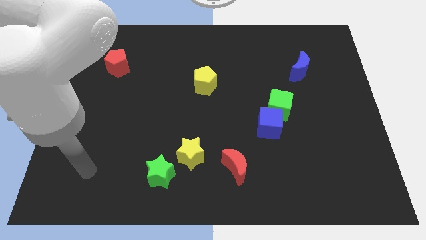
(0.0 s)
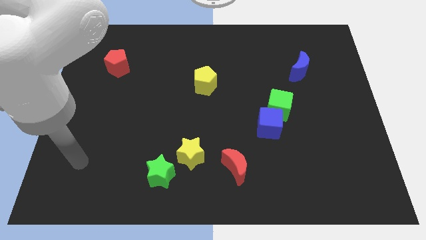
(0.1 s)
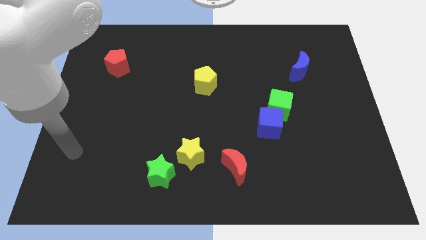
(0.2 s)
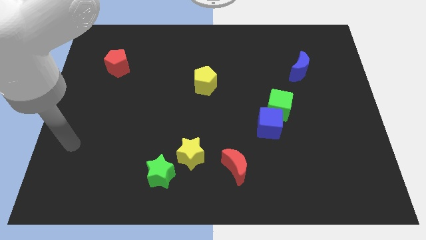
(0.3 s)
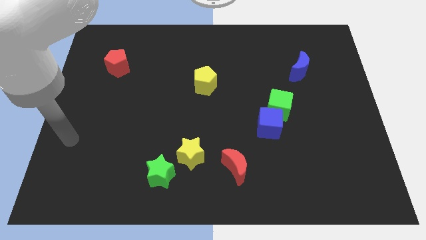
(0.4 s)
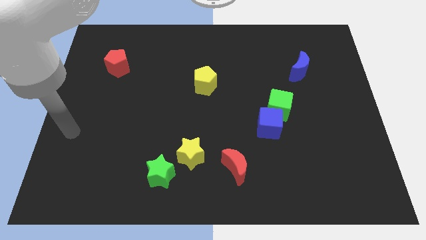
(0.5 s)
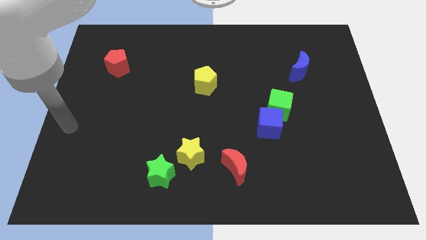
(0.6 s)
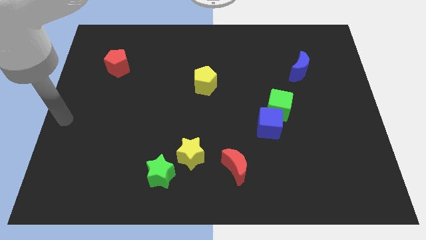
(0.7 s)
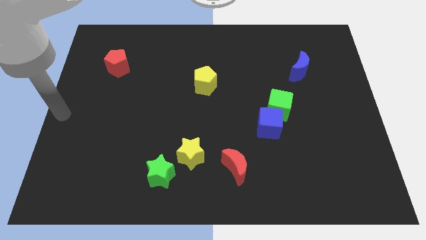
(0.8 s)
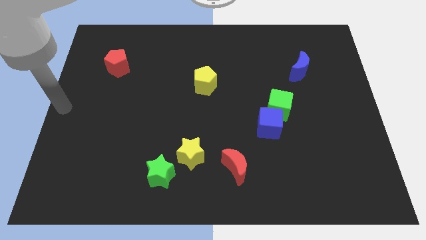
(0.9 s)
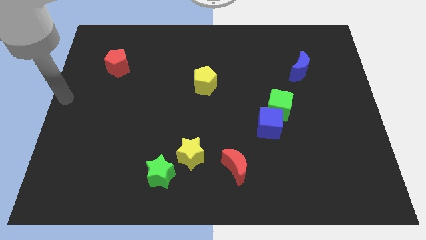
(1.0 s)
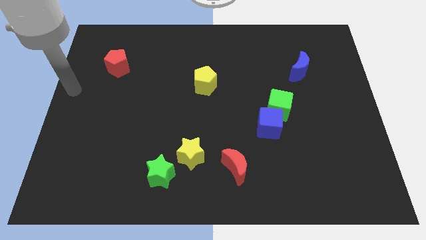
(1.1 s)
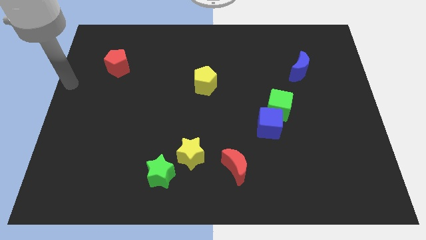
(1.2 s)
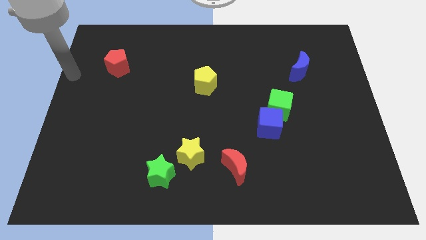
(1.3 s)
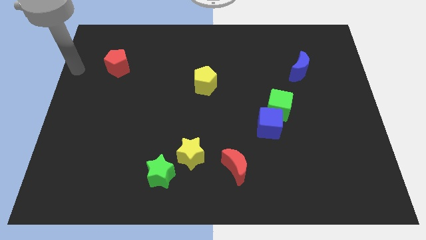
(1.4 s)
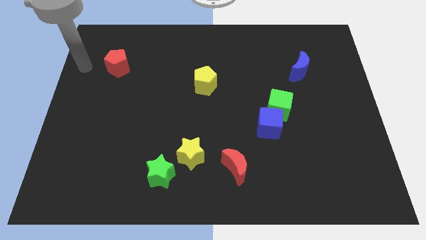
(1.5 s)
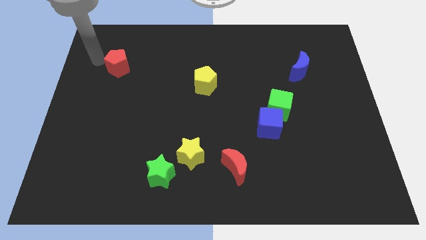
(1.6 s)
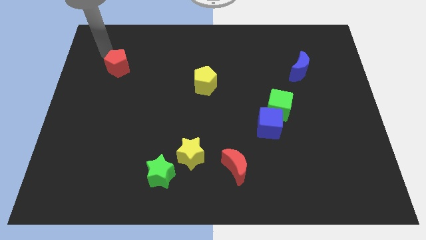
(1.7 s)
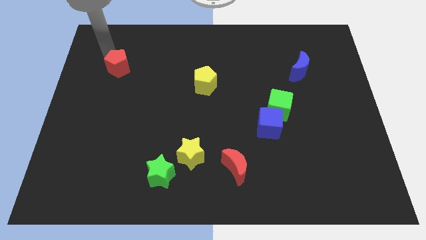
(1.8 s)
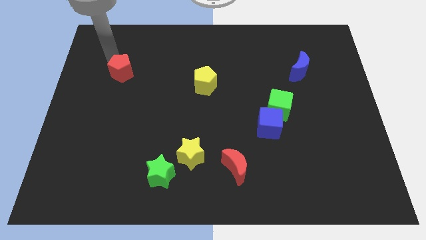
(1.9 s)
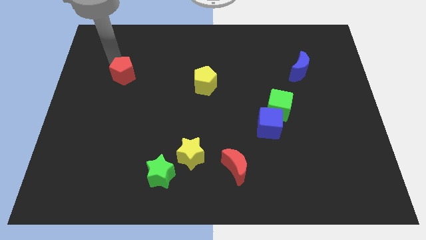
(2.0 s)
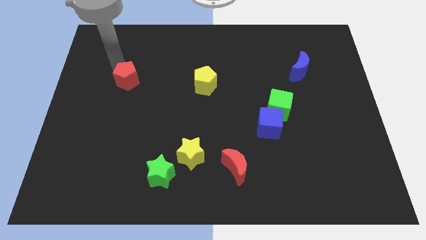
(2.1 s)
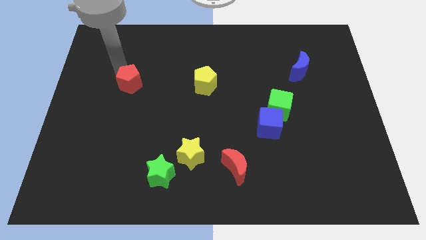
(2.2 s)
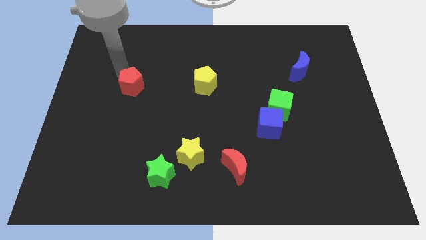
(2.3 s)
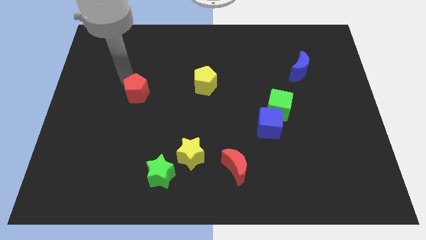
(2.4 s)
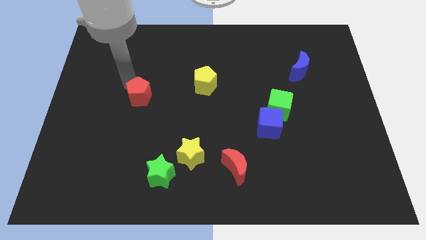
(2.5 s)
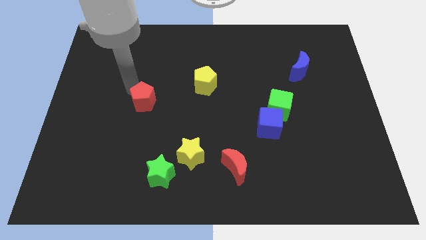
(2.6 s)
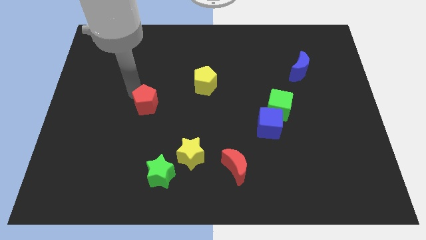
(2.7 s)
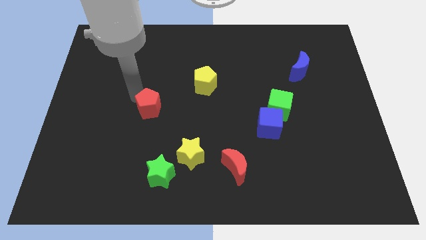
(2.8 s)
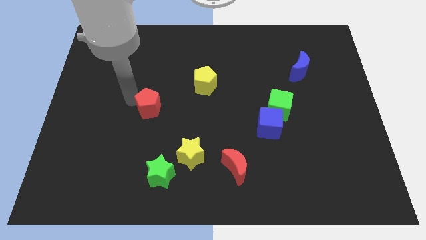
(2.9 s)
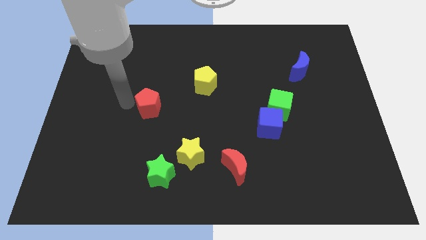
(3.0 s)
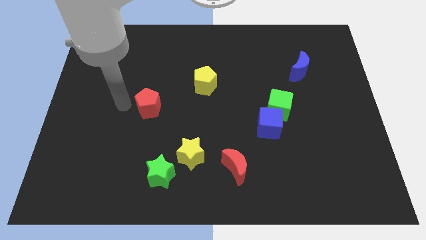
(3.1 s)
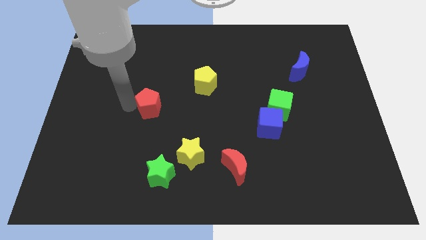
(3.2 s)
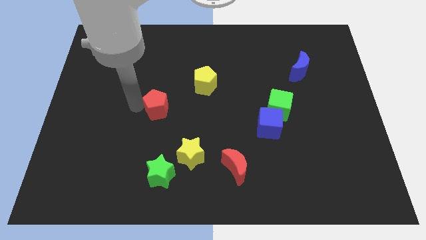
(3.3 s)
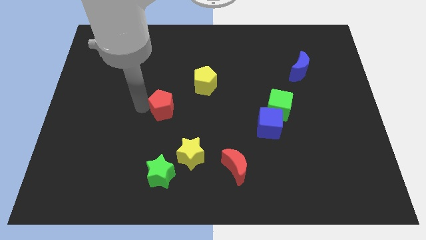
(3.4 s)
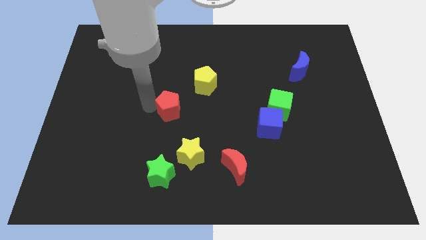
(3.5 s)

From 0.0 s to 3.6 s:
push the red pentagon downwards and then right

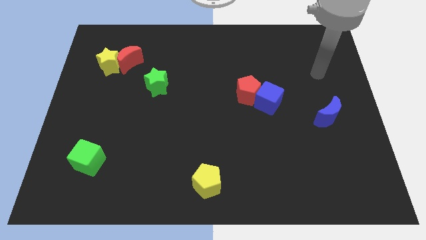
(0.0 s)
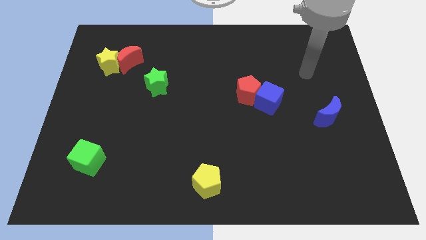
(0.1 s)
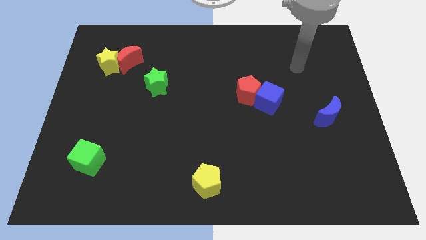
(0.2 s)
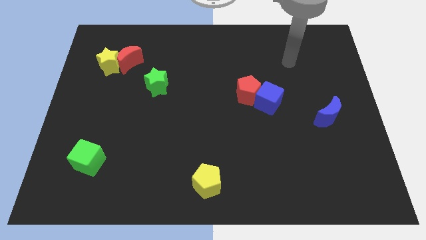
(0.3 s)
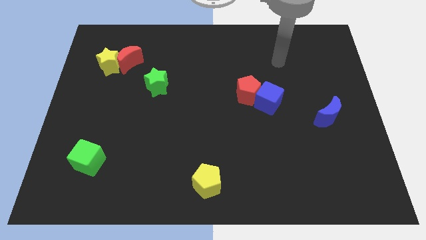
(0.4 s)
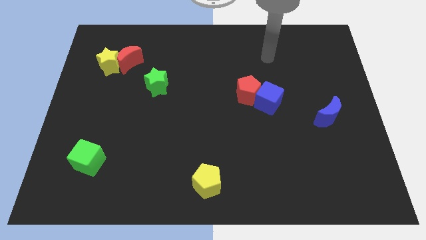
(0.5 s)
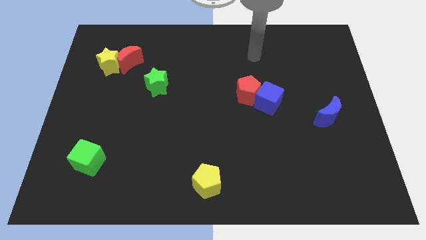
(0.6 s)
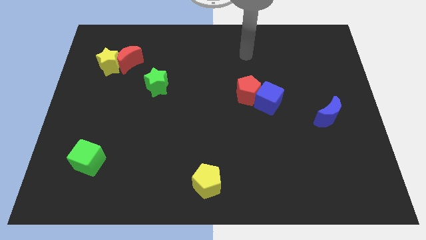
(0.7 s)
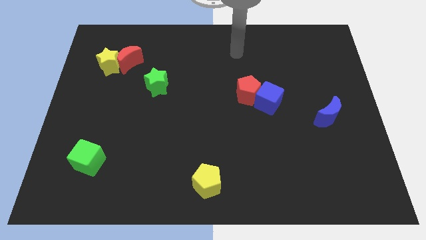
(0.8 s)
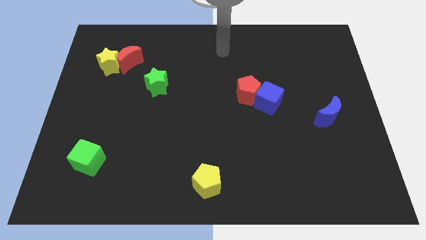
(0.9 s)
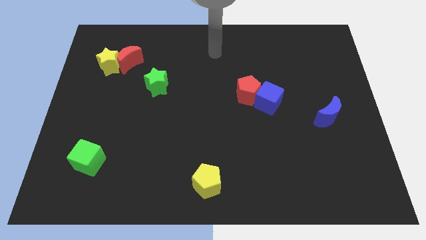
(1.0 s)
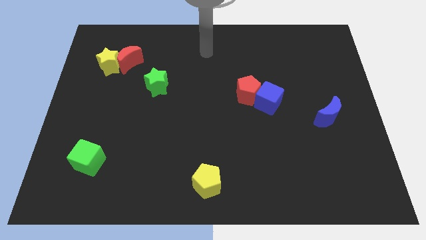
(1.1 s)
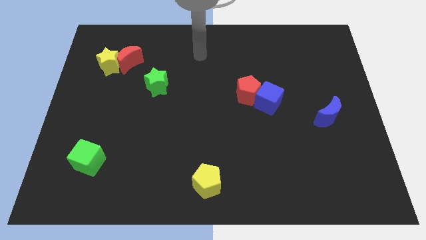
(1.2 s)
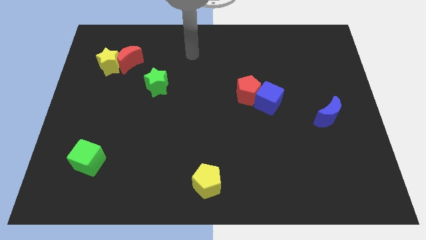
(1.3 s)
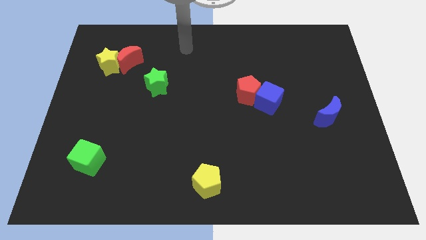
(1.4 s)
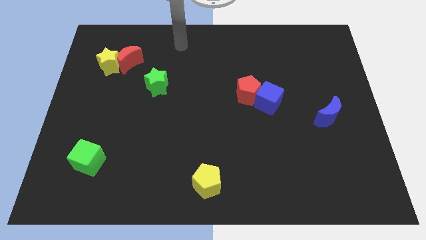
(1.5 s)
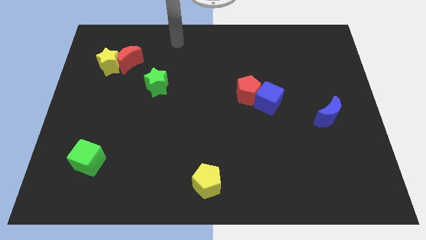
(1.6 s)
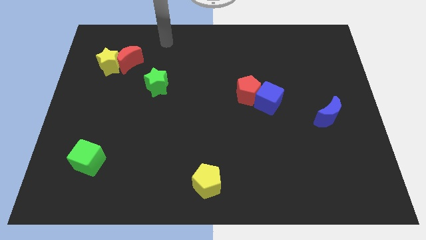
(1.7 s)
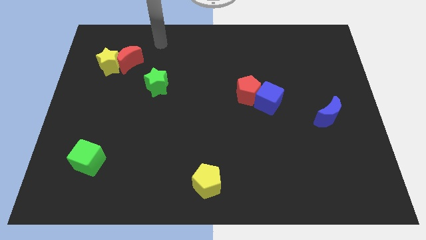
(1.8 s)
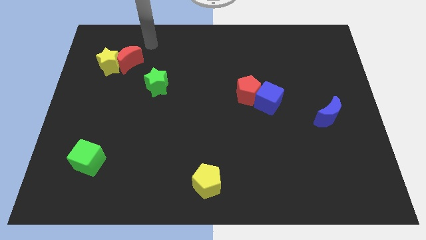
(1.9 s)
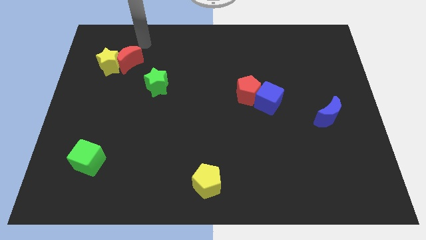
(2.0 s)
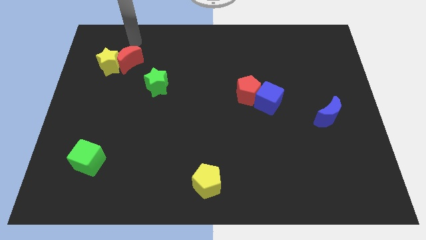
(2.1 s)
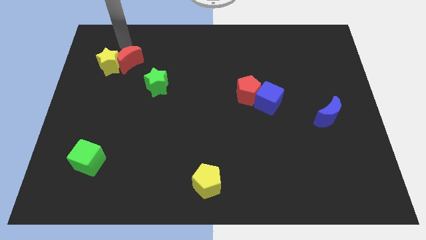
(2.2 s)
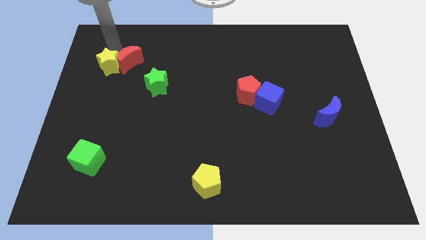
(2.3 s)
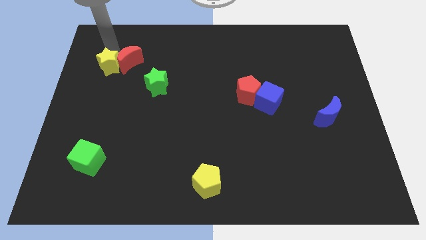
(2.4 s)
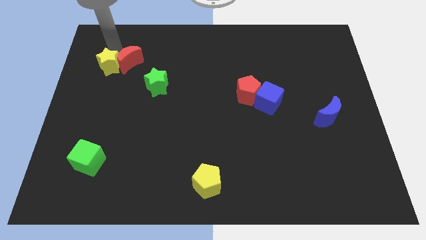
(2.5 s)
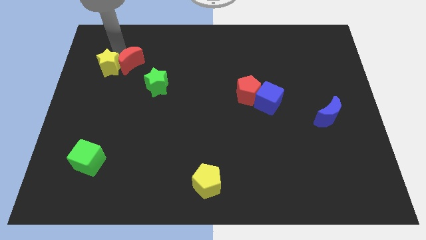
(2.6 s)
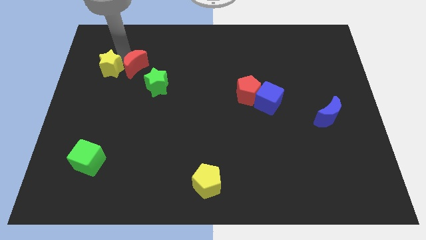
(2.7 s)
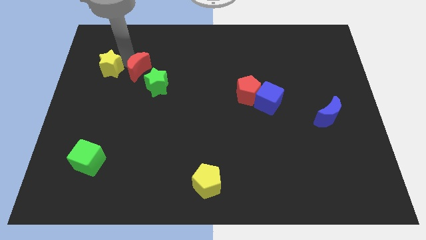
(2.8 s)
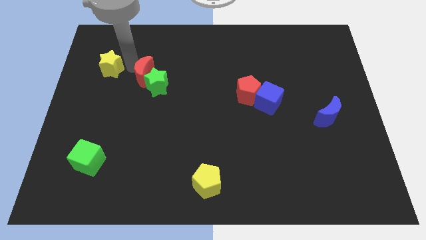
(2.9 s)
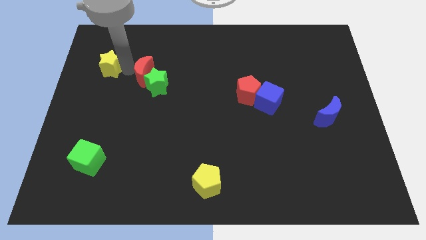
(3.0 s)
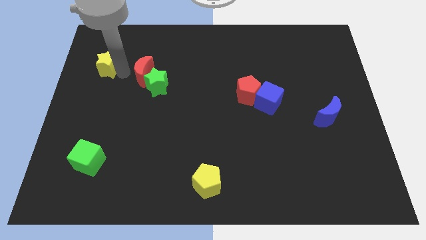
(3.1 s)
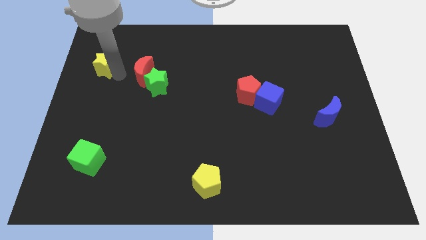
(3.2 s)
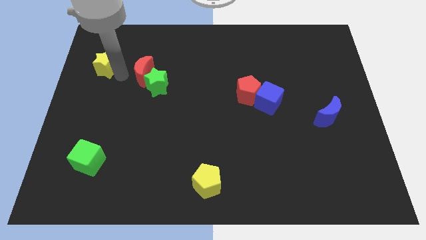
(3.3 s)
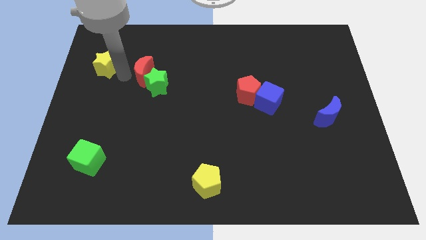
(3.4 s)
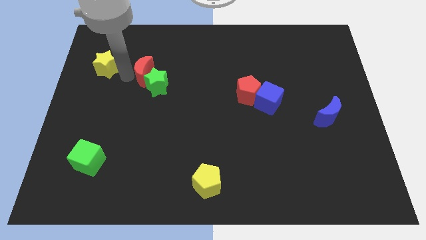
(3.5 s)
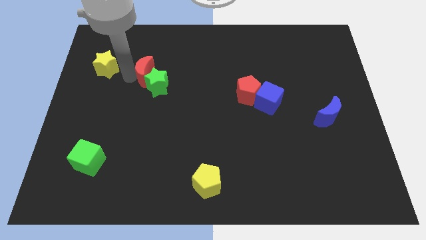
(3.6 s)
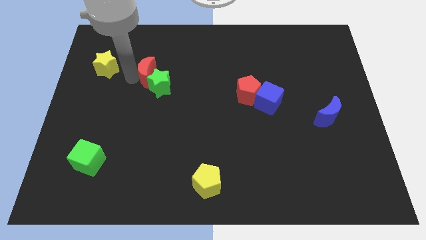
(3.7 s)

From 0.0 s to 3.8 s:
move the red moon down and right somewhat

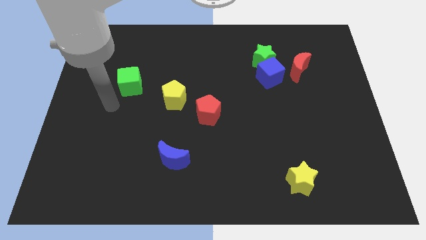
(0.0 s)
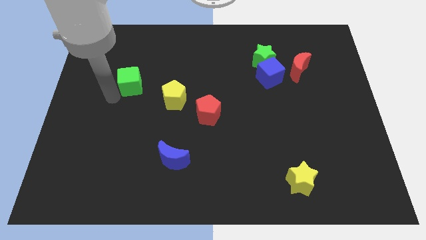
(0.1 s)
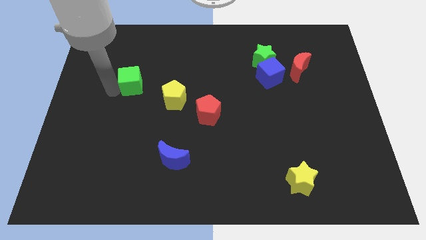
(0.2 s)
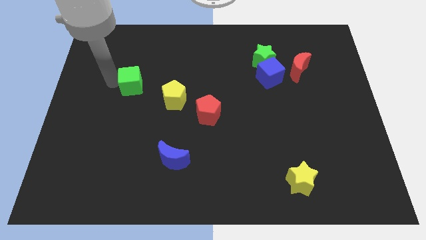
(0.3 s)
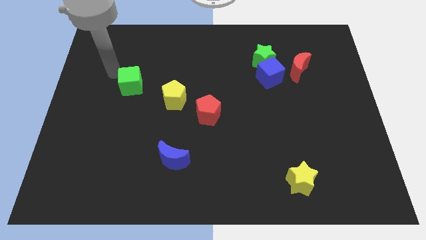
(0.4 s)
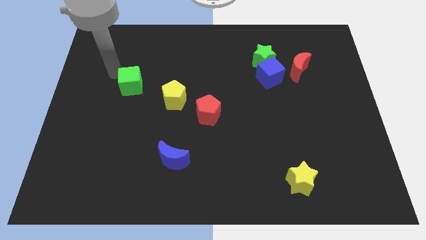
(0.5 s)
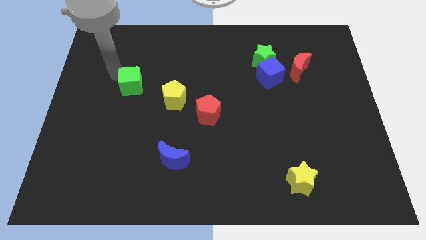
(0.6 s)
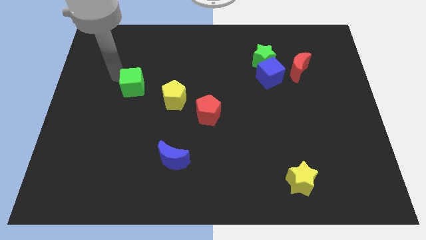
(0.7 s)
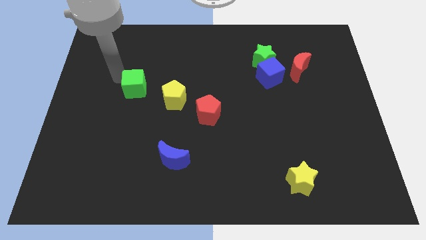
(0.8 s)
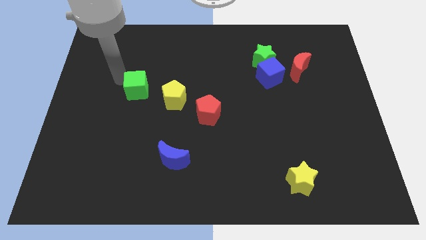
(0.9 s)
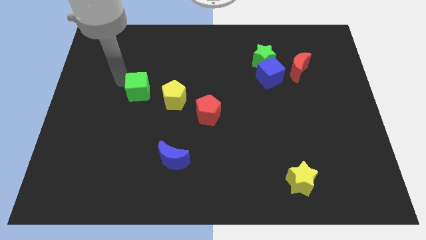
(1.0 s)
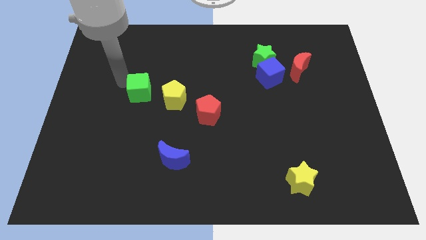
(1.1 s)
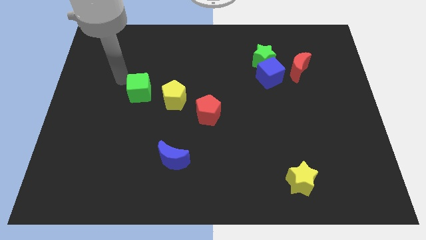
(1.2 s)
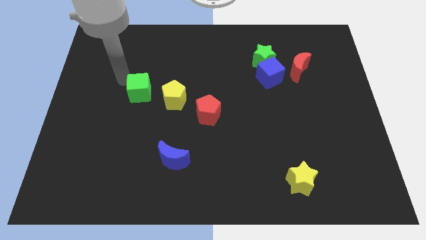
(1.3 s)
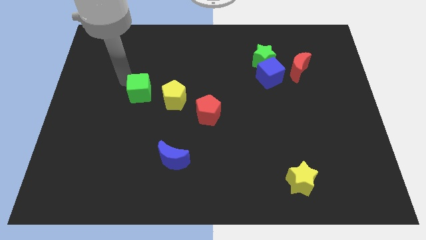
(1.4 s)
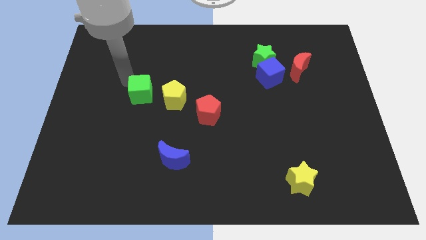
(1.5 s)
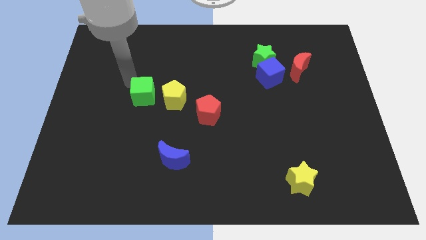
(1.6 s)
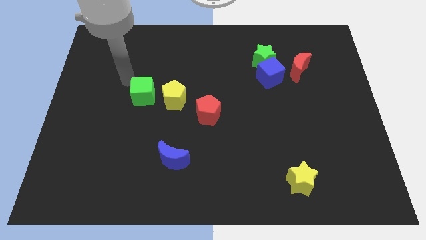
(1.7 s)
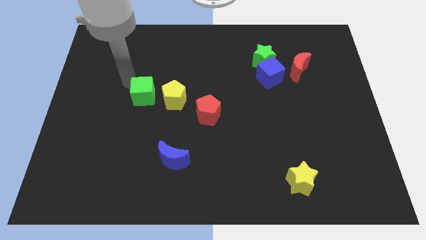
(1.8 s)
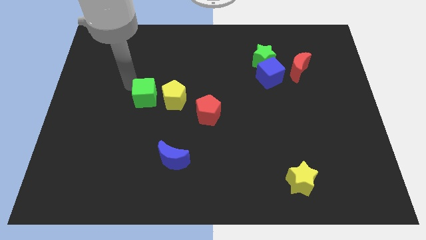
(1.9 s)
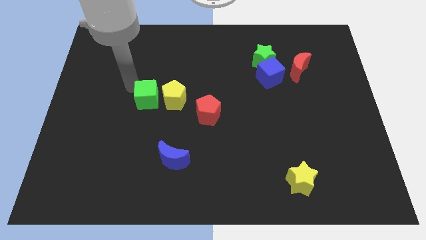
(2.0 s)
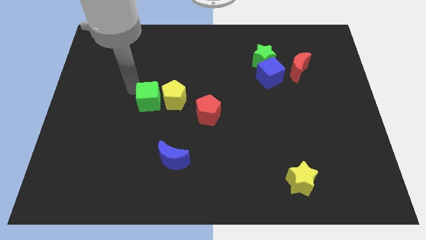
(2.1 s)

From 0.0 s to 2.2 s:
slide the green cube slightly down and then right
